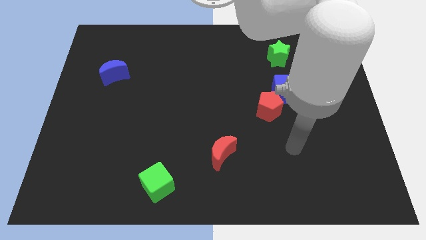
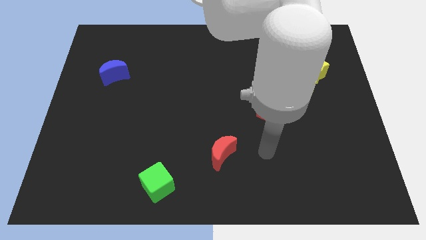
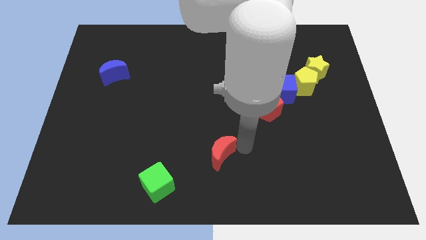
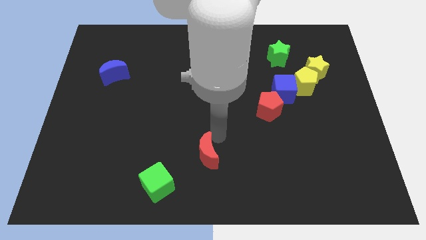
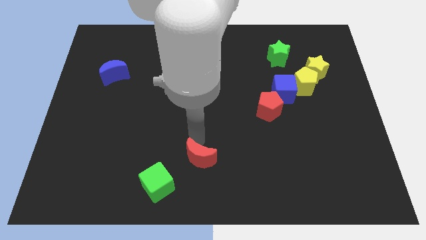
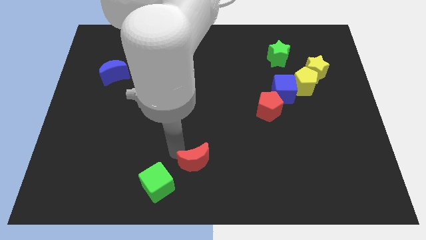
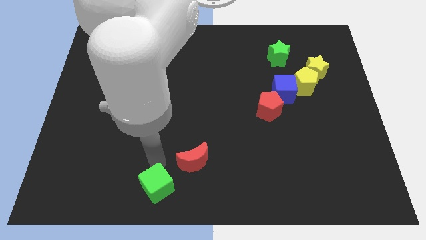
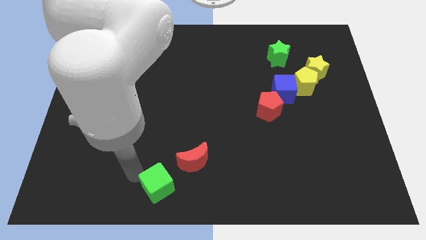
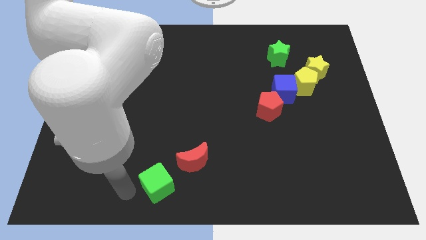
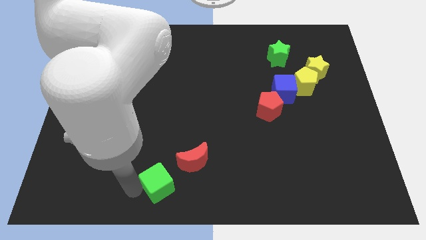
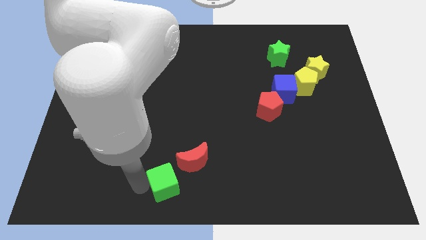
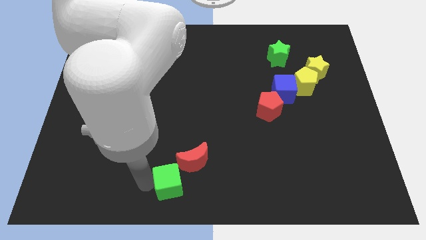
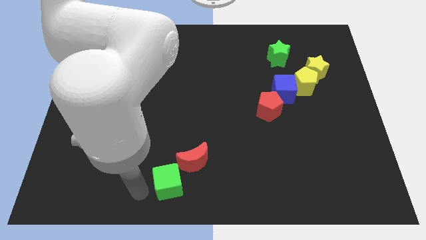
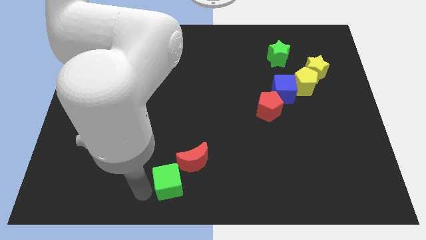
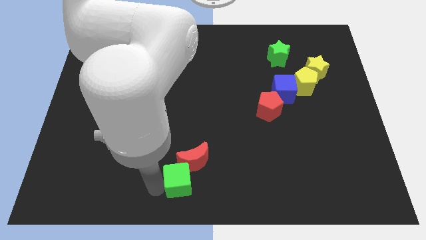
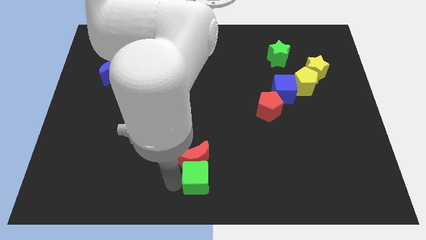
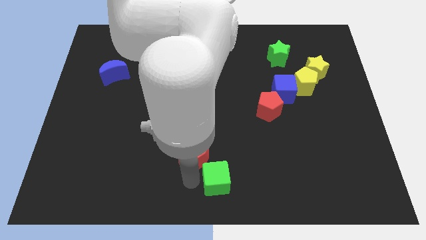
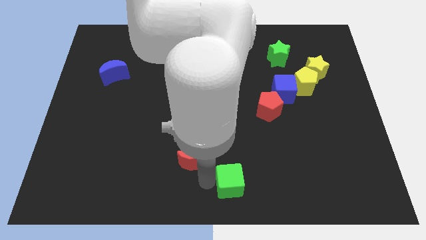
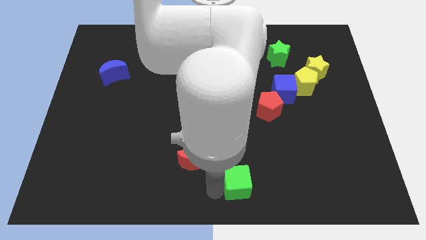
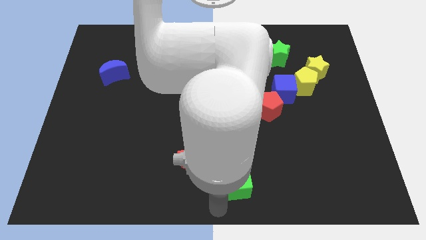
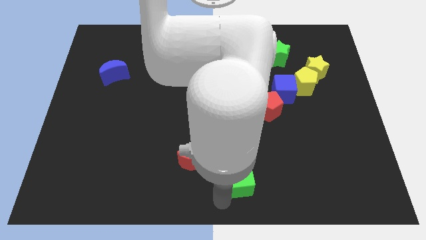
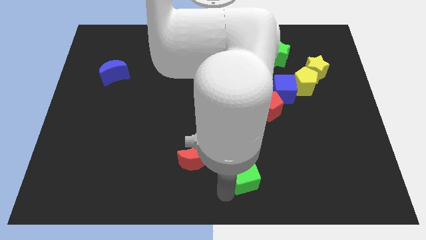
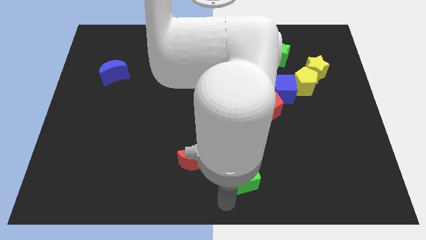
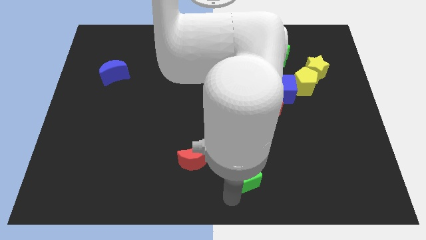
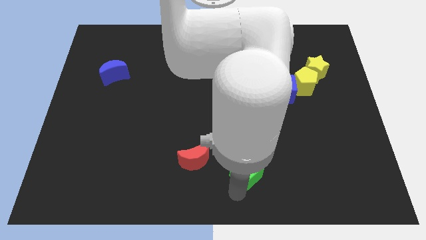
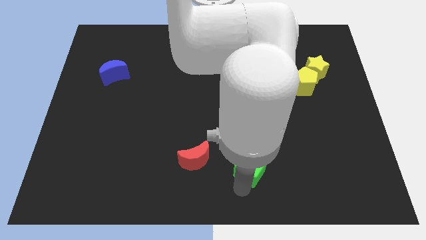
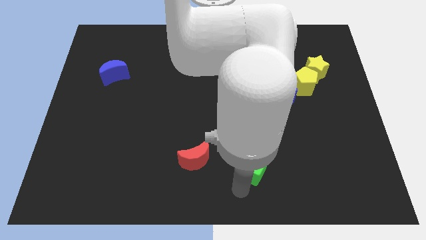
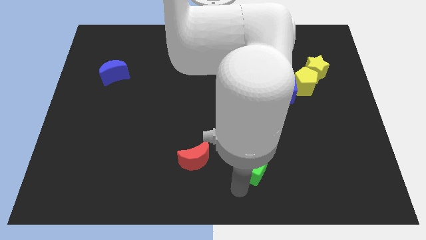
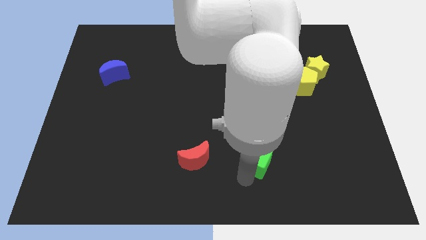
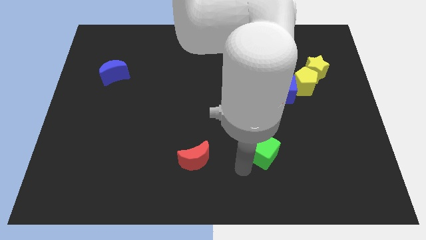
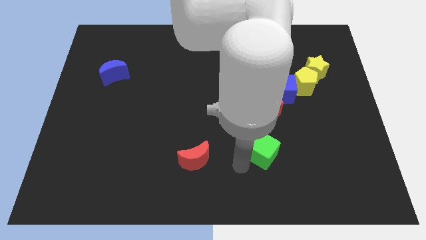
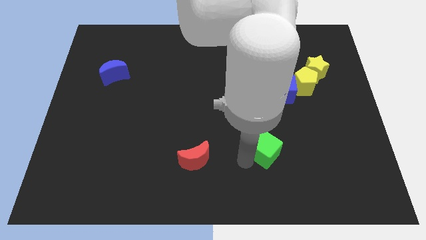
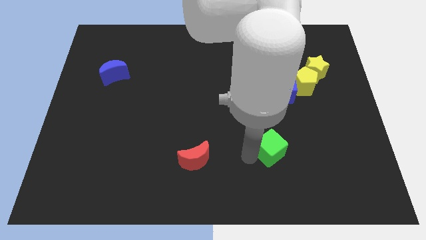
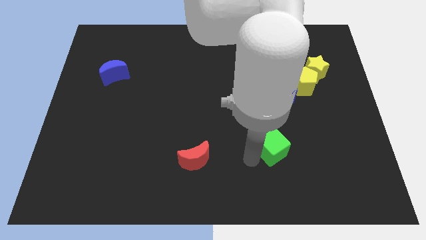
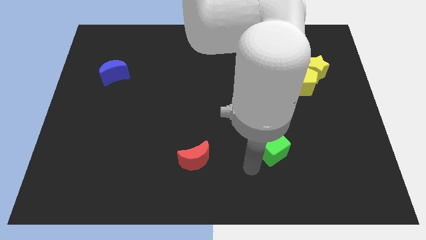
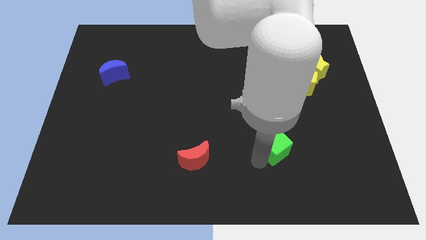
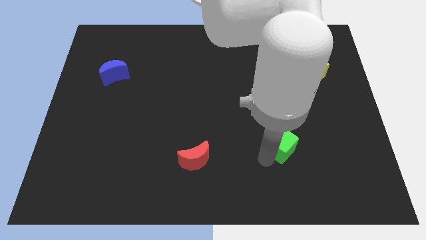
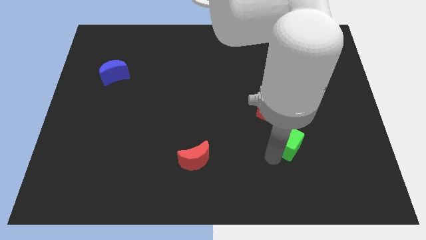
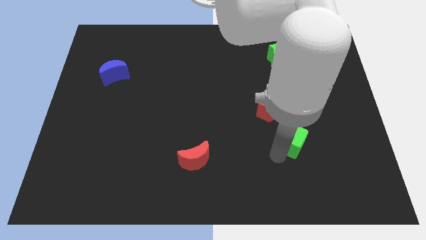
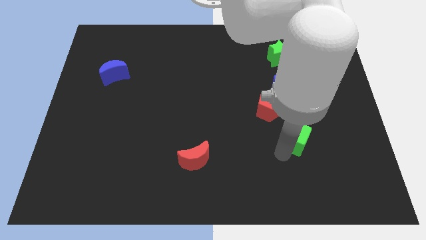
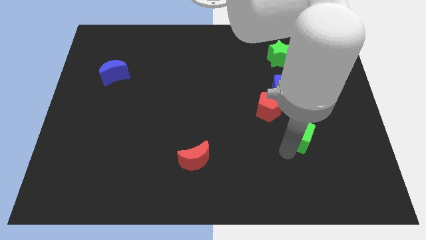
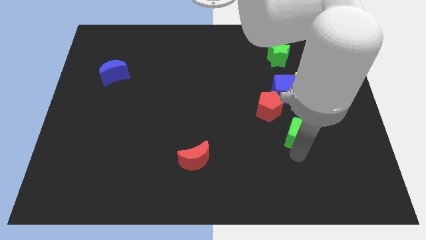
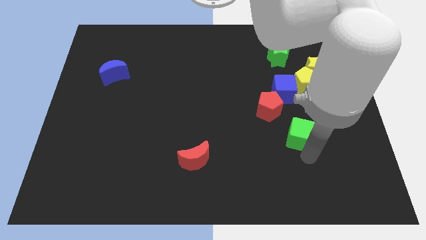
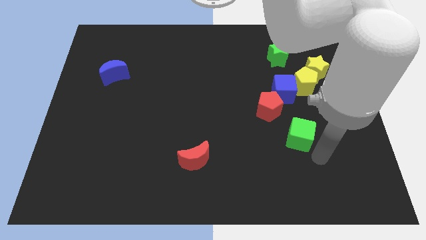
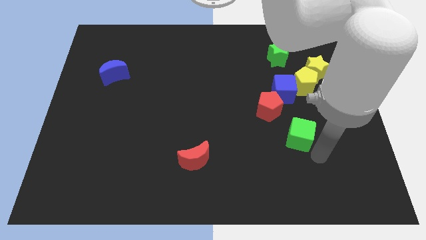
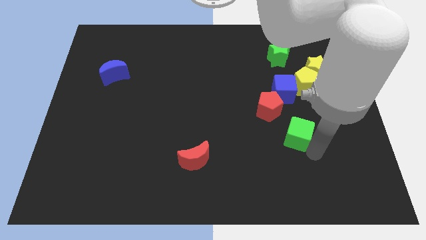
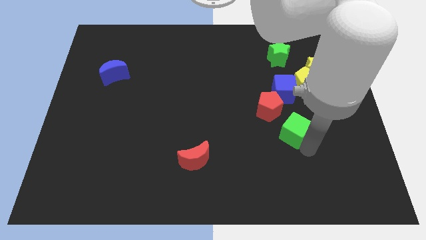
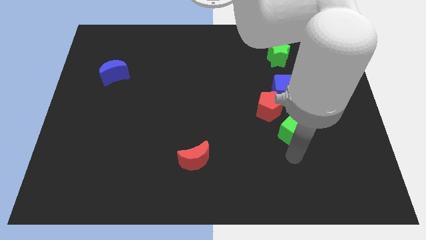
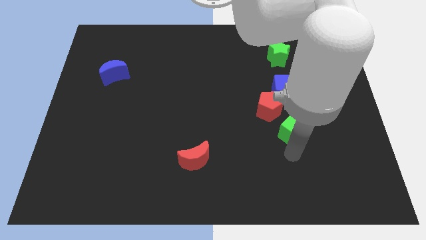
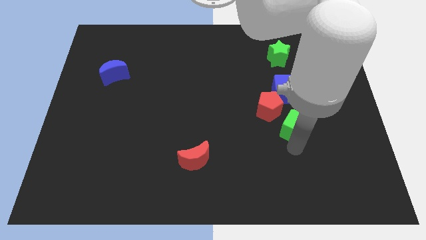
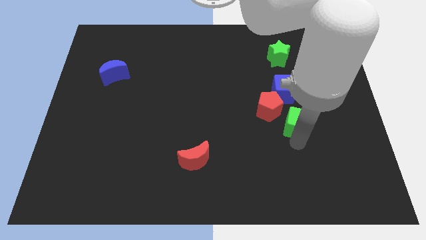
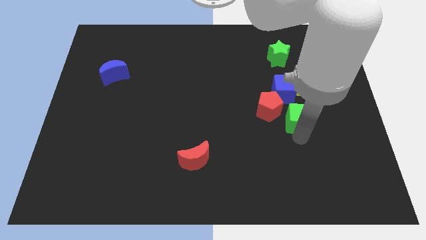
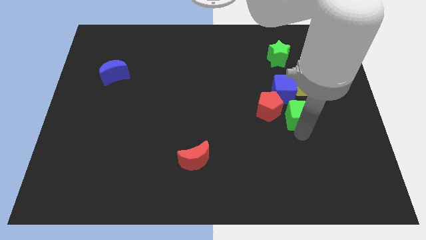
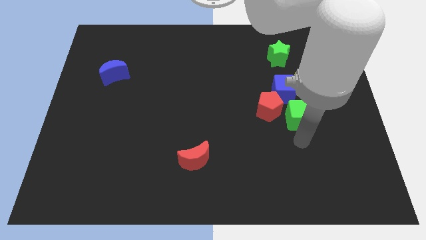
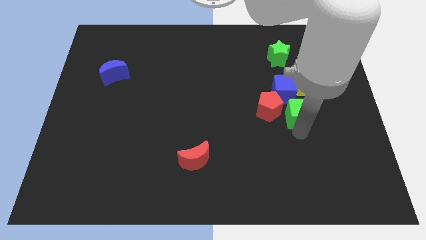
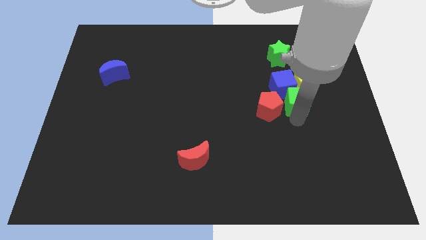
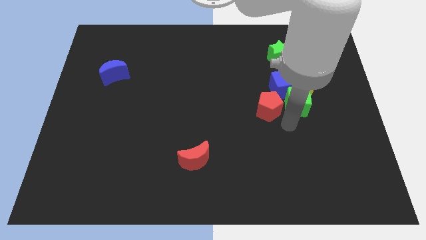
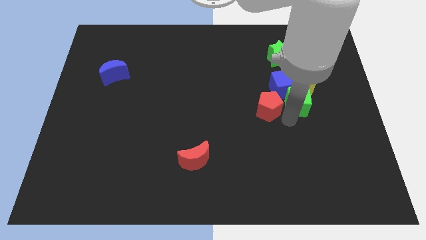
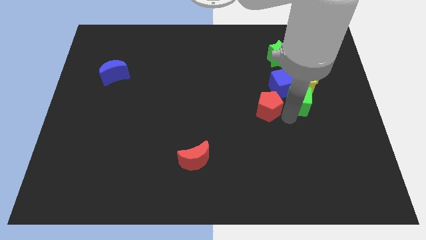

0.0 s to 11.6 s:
put the green cube to the yellow pentagon
